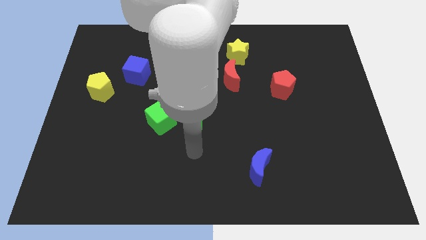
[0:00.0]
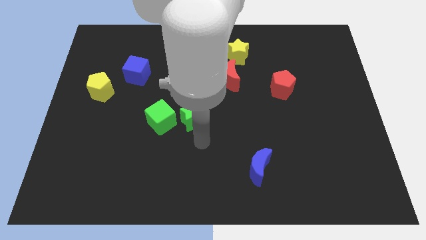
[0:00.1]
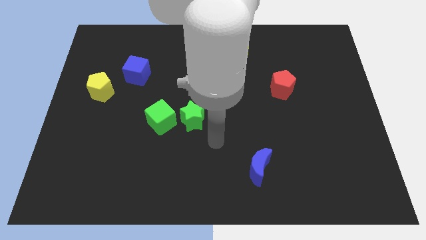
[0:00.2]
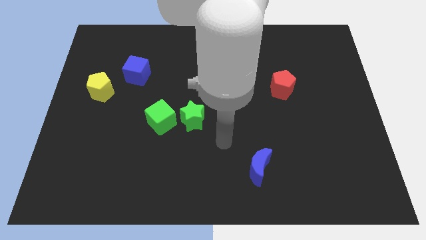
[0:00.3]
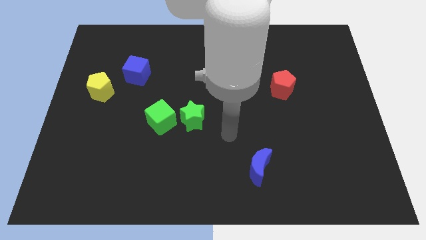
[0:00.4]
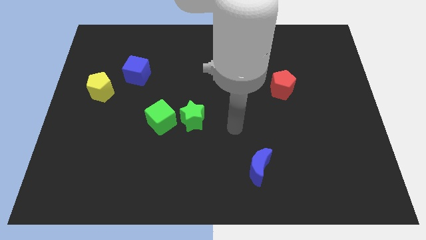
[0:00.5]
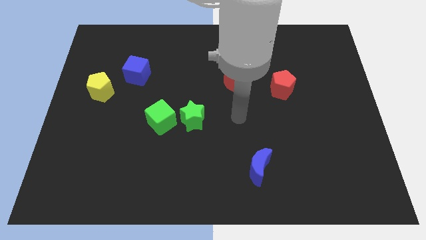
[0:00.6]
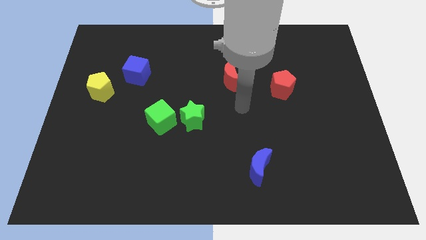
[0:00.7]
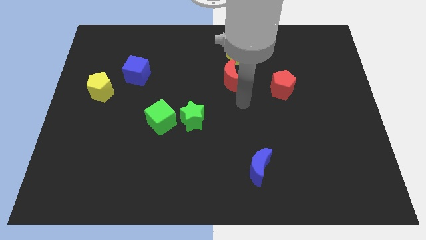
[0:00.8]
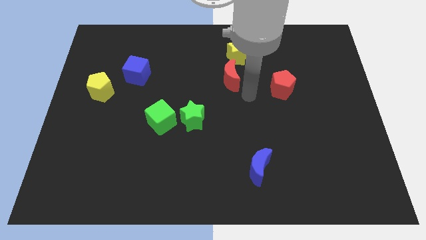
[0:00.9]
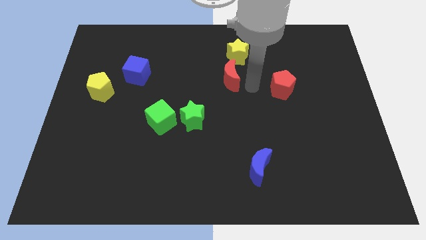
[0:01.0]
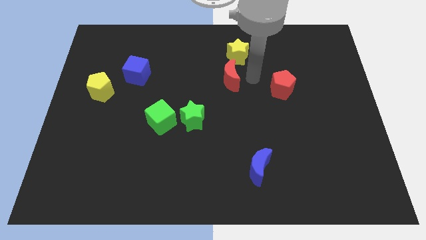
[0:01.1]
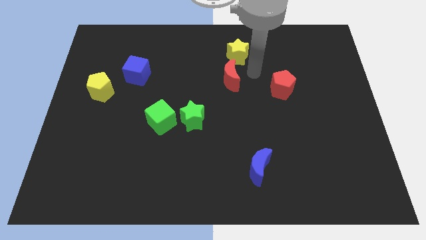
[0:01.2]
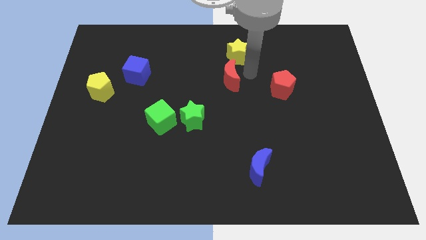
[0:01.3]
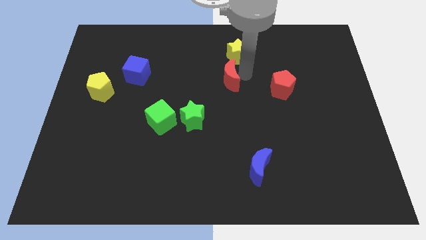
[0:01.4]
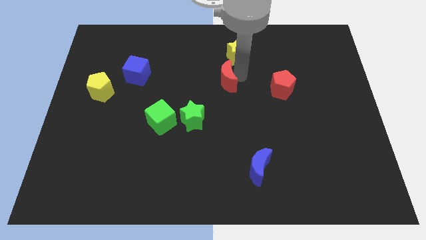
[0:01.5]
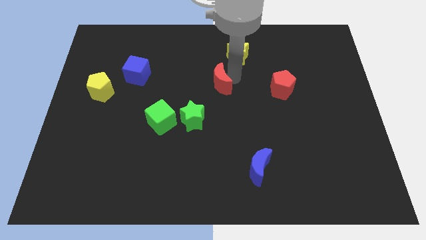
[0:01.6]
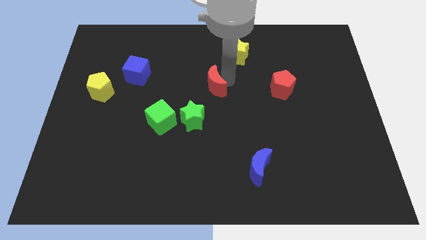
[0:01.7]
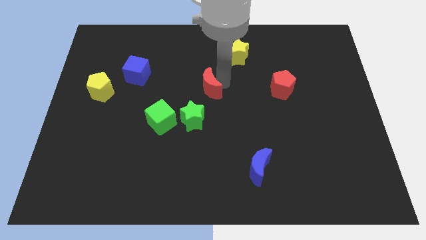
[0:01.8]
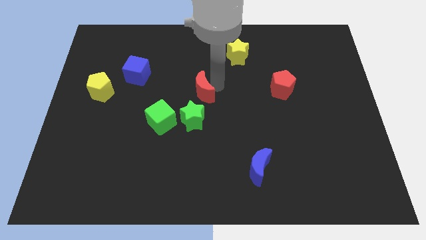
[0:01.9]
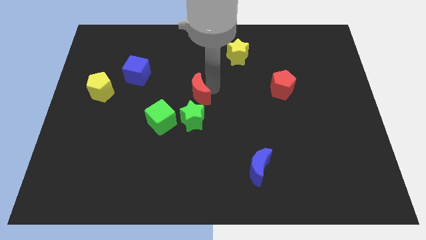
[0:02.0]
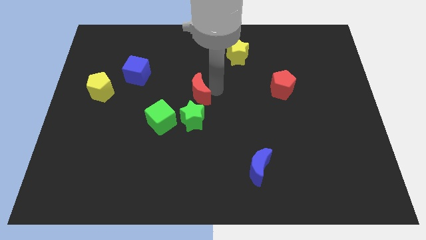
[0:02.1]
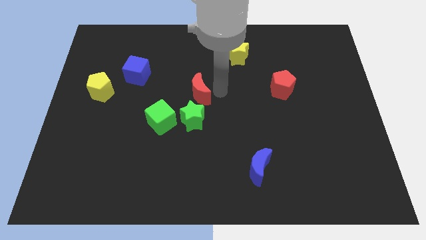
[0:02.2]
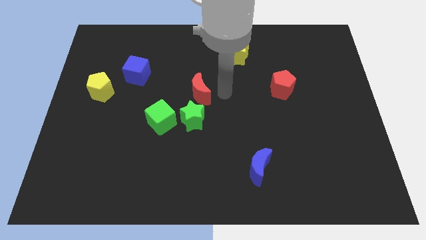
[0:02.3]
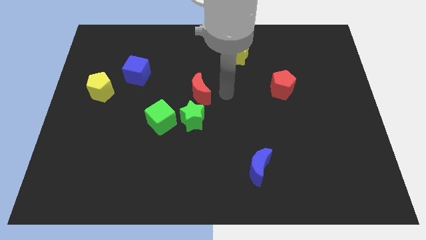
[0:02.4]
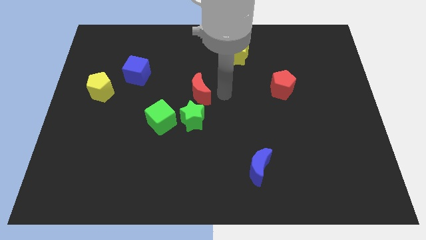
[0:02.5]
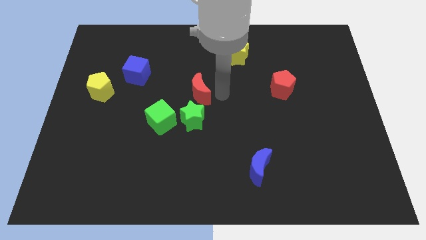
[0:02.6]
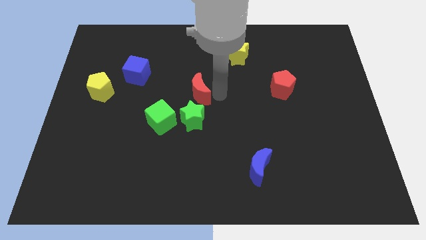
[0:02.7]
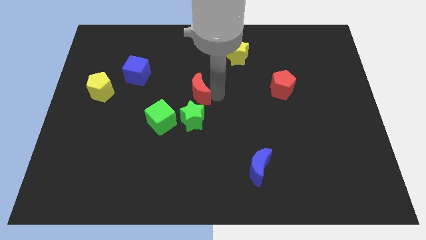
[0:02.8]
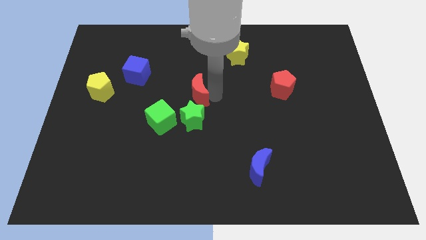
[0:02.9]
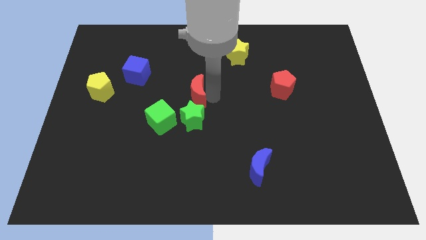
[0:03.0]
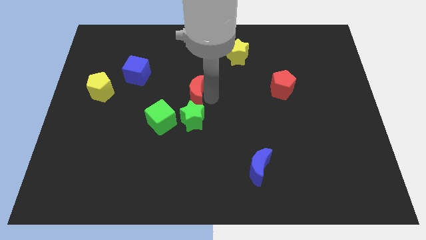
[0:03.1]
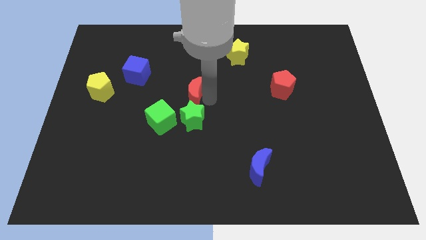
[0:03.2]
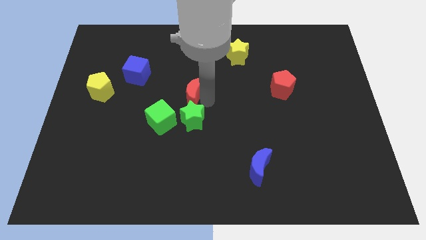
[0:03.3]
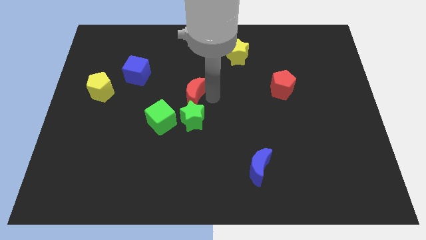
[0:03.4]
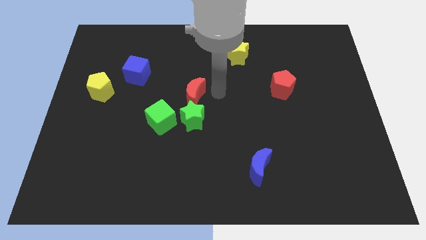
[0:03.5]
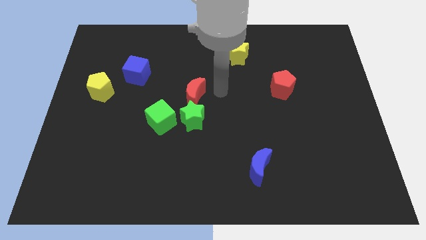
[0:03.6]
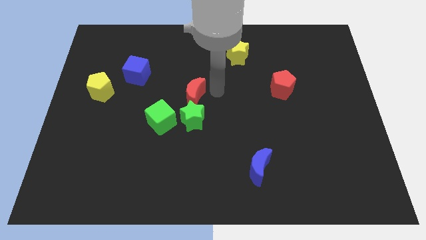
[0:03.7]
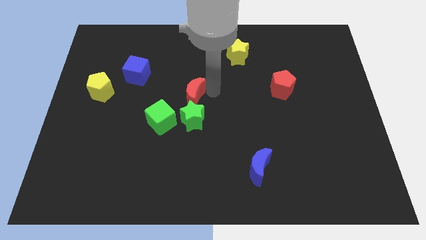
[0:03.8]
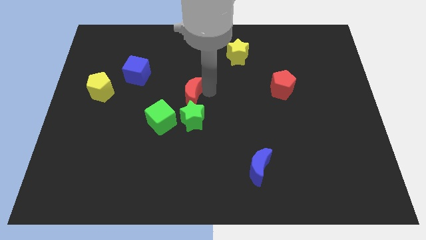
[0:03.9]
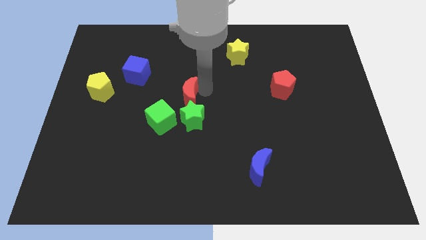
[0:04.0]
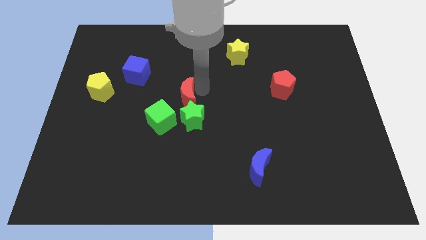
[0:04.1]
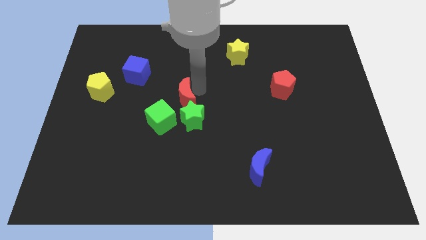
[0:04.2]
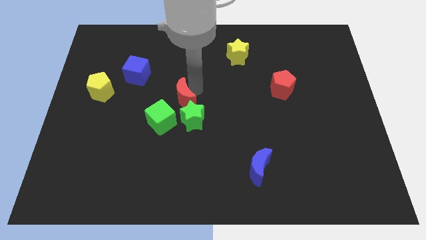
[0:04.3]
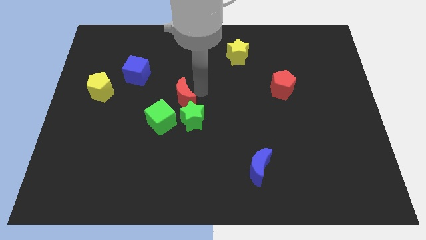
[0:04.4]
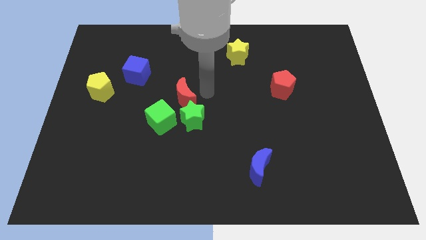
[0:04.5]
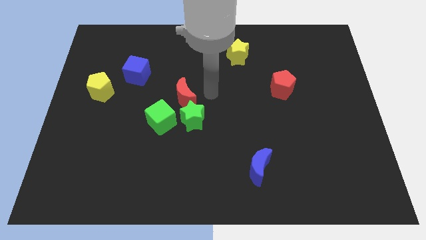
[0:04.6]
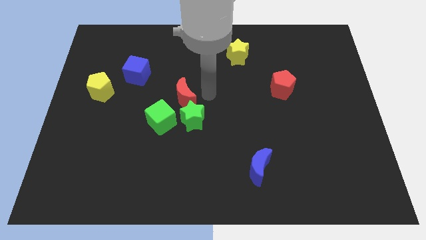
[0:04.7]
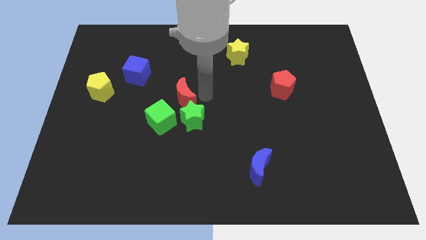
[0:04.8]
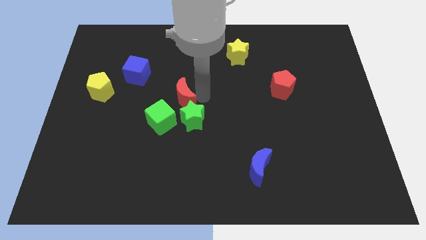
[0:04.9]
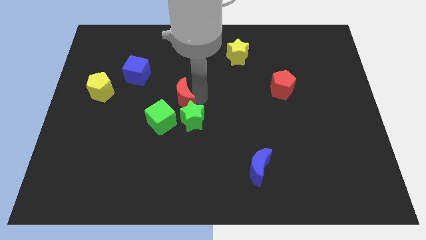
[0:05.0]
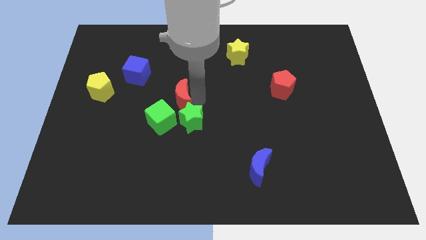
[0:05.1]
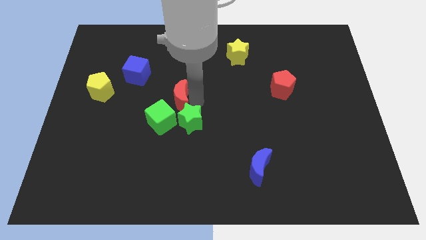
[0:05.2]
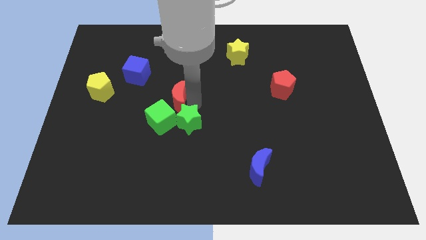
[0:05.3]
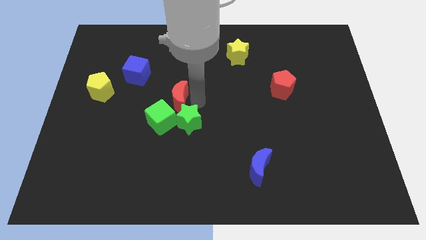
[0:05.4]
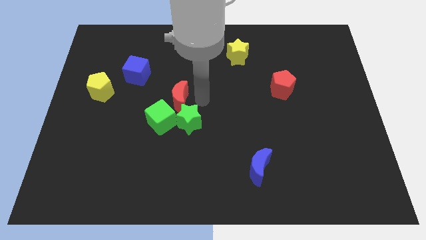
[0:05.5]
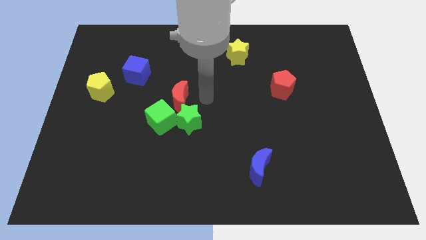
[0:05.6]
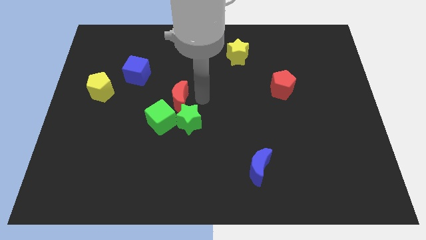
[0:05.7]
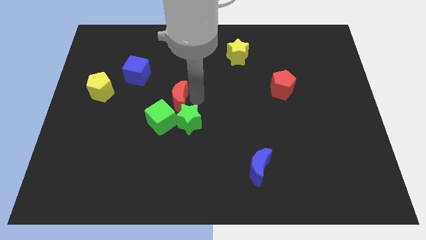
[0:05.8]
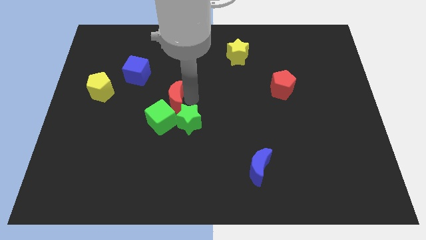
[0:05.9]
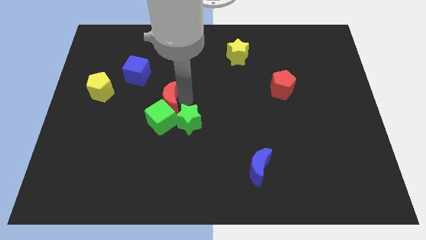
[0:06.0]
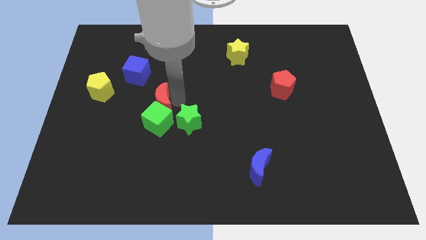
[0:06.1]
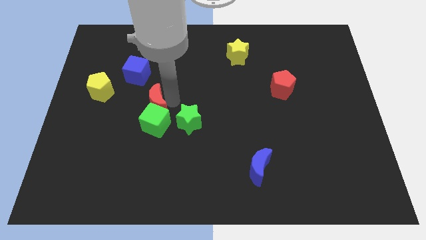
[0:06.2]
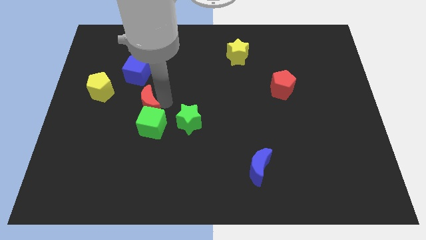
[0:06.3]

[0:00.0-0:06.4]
slide the red moon to the left of the green star

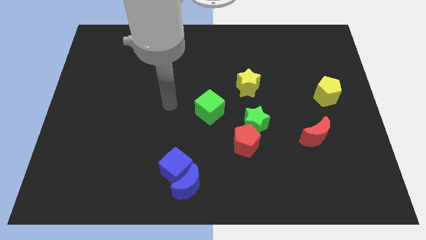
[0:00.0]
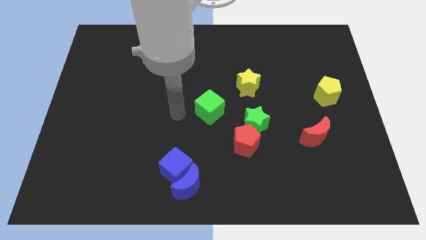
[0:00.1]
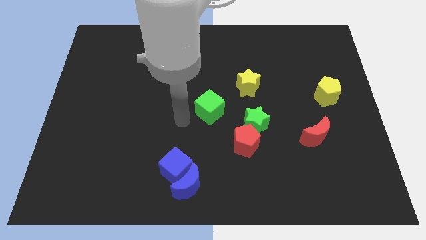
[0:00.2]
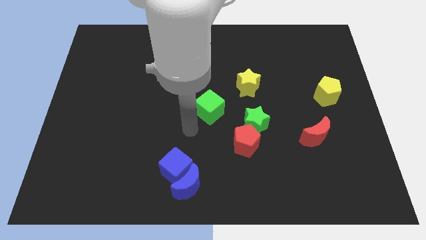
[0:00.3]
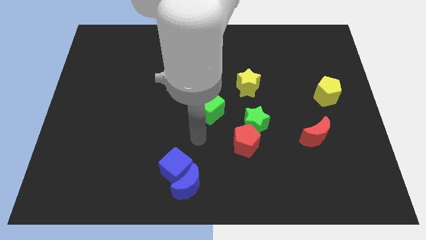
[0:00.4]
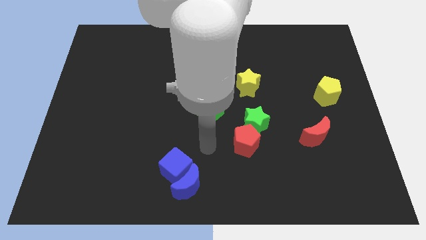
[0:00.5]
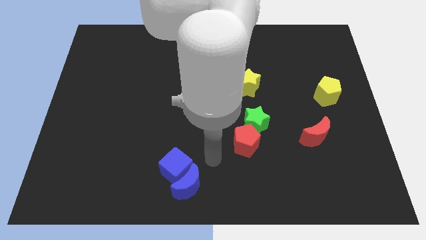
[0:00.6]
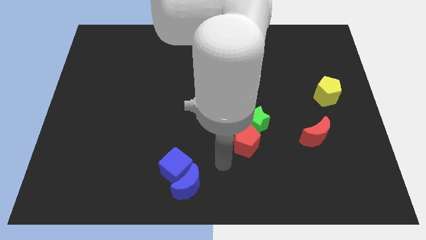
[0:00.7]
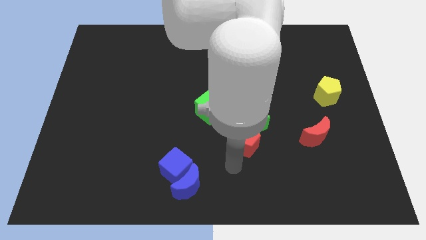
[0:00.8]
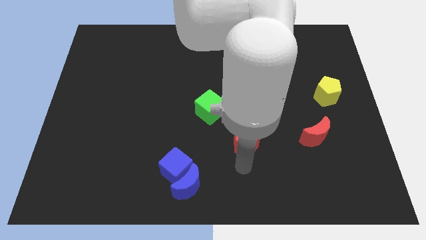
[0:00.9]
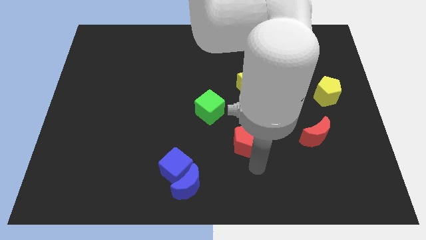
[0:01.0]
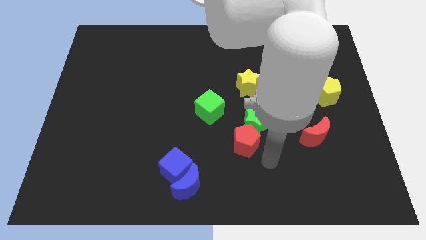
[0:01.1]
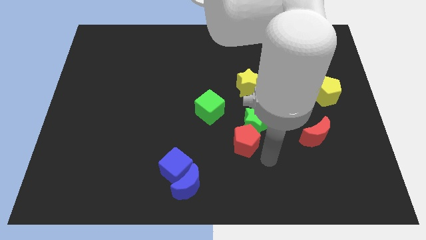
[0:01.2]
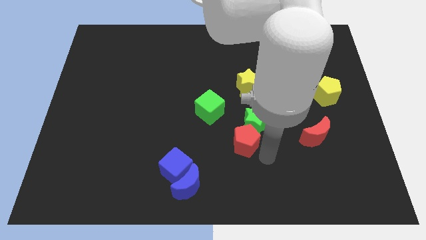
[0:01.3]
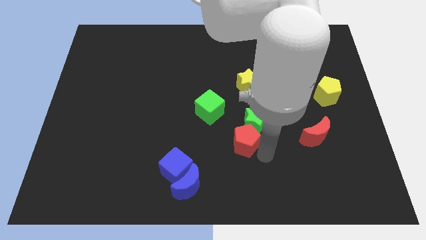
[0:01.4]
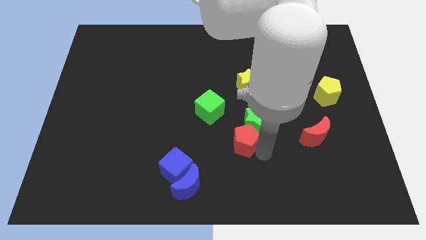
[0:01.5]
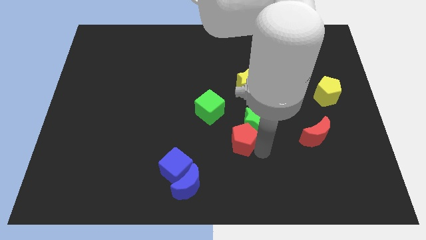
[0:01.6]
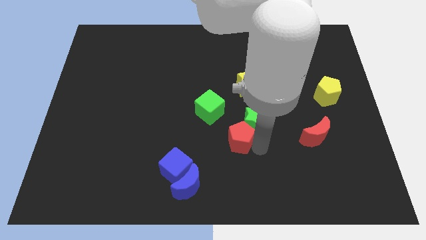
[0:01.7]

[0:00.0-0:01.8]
move the red pentagon to the left of the green star

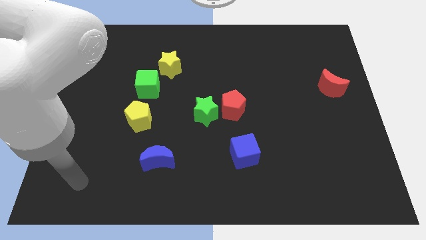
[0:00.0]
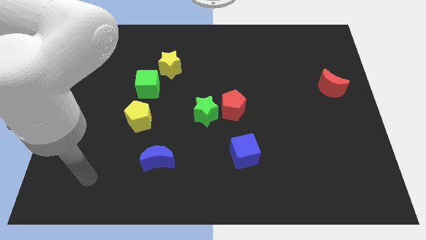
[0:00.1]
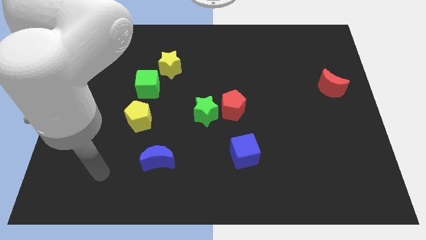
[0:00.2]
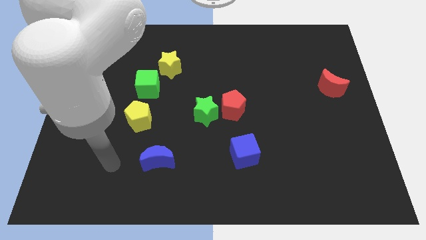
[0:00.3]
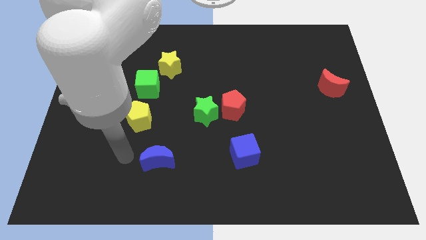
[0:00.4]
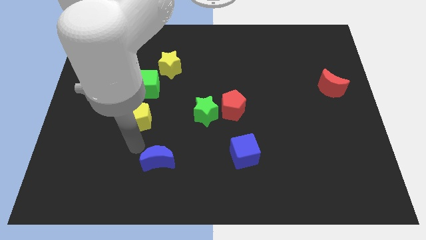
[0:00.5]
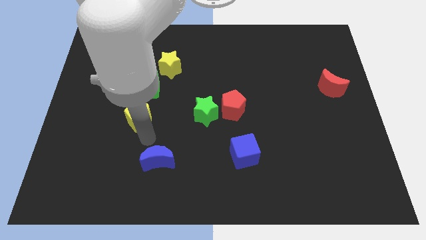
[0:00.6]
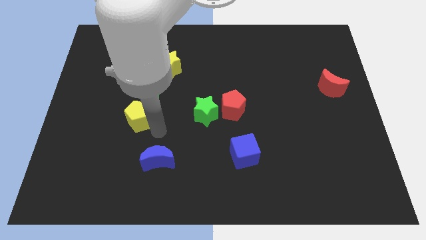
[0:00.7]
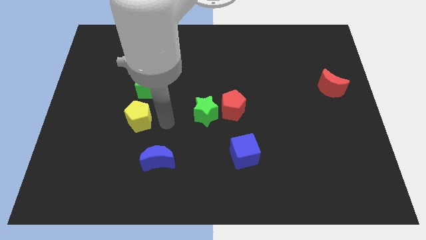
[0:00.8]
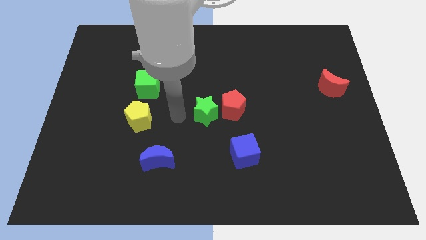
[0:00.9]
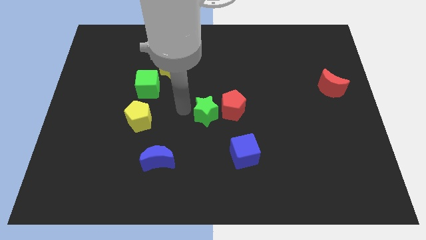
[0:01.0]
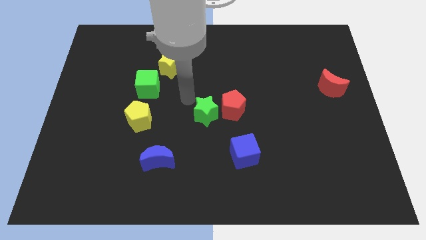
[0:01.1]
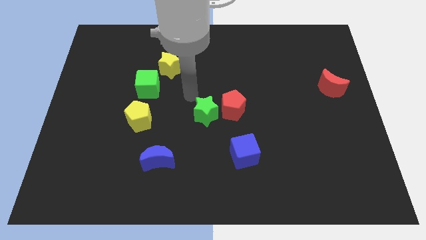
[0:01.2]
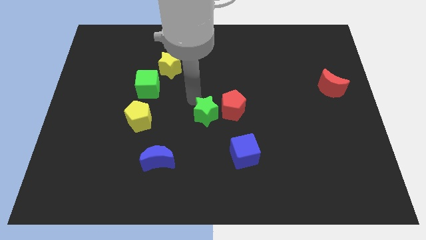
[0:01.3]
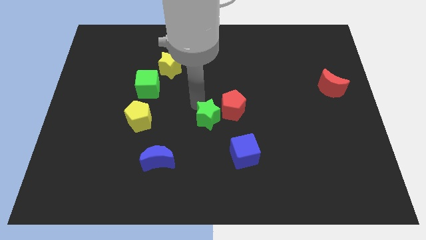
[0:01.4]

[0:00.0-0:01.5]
slide the green star to the top left side of the blue cube
